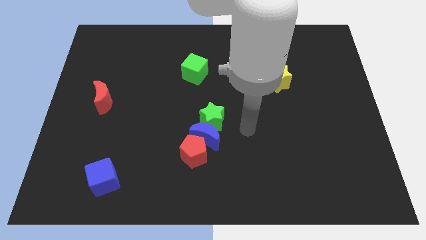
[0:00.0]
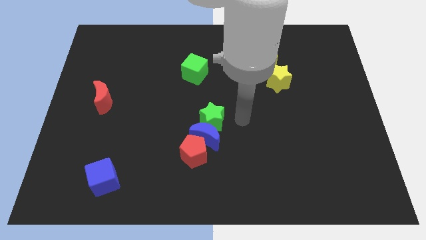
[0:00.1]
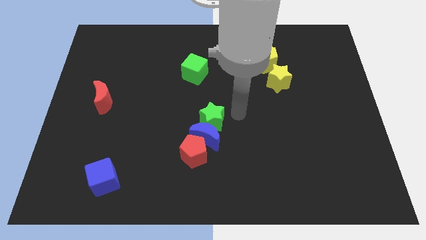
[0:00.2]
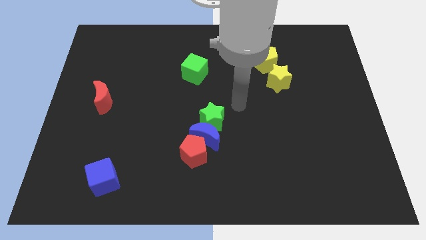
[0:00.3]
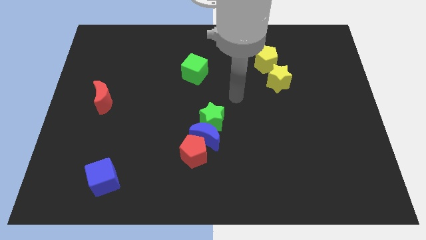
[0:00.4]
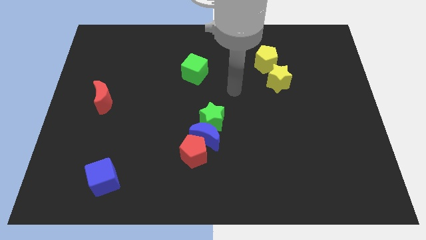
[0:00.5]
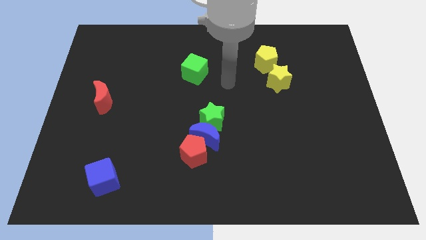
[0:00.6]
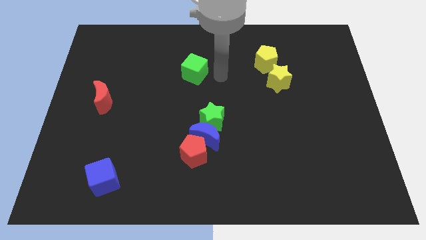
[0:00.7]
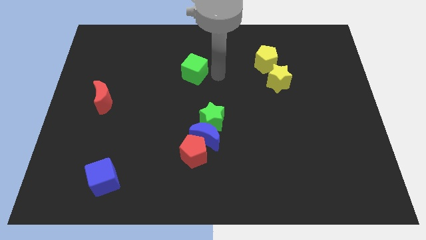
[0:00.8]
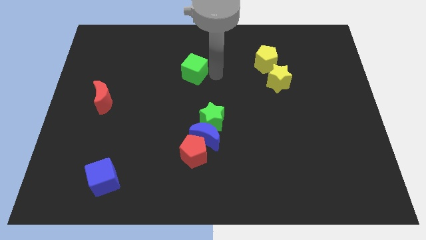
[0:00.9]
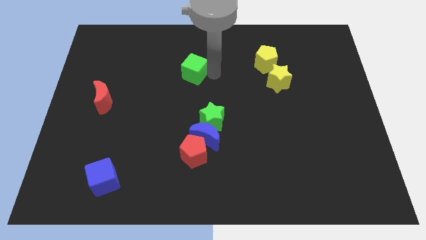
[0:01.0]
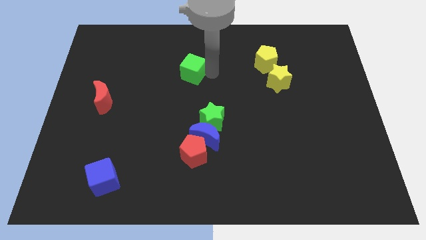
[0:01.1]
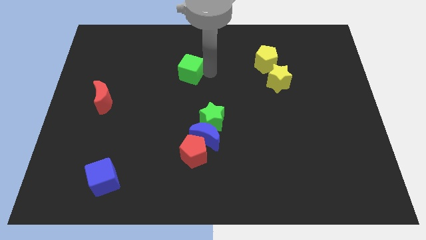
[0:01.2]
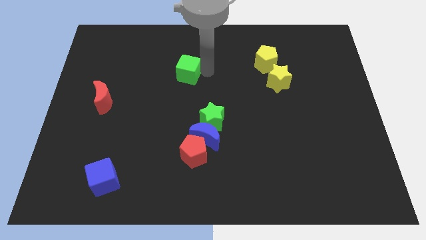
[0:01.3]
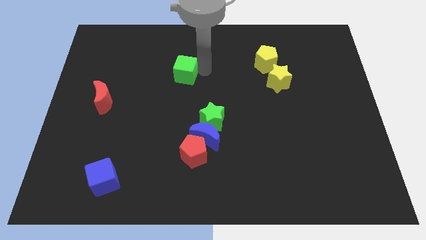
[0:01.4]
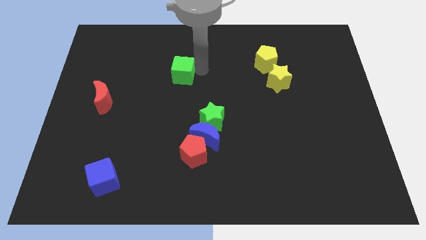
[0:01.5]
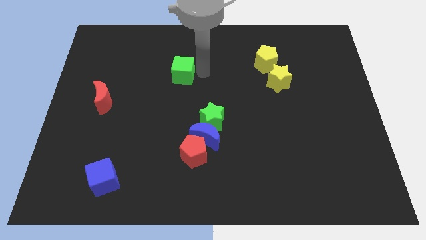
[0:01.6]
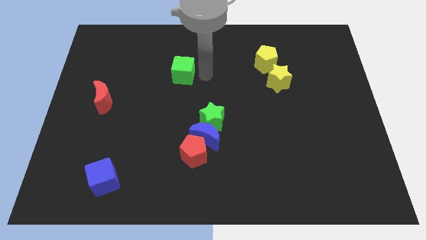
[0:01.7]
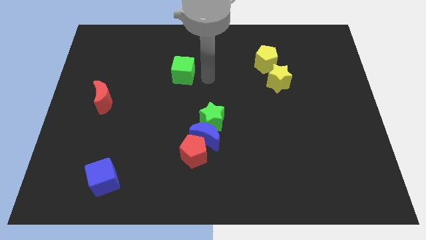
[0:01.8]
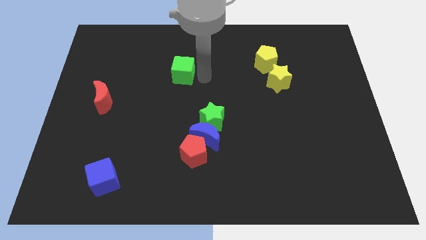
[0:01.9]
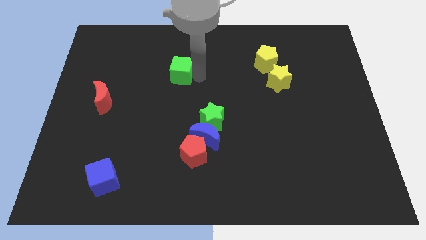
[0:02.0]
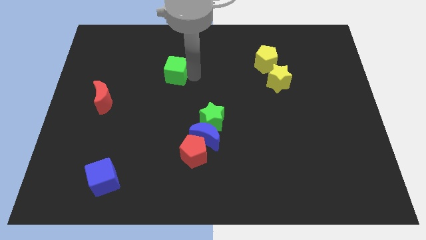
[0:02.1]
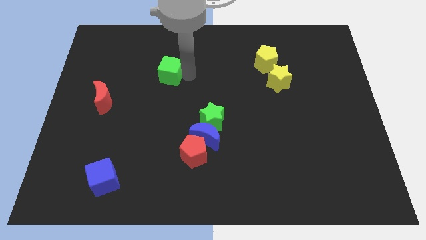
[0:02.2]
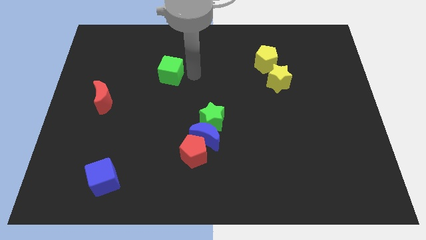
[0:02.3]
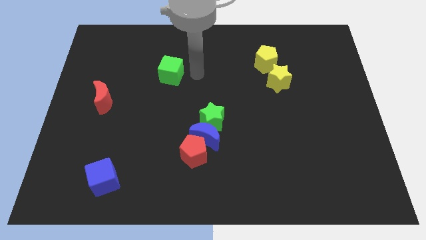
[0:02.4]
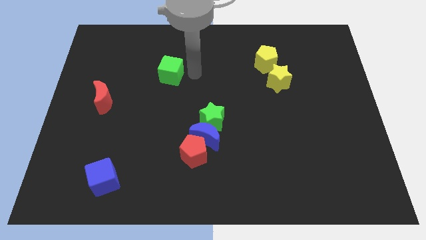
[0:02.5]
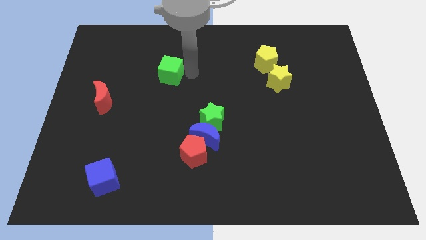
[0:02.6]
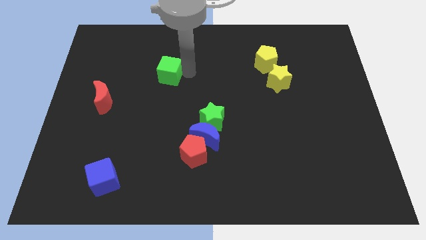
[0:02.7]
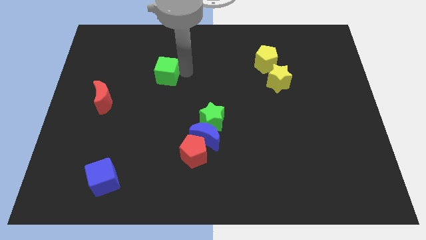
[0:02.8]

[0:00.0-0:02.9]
slide the green cube left a little

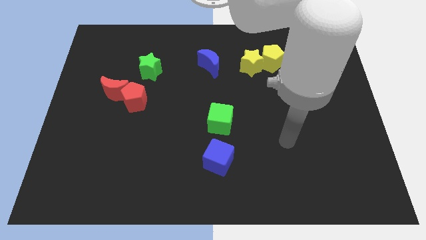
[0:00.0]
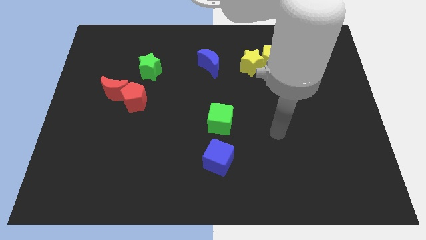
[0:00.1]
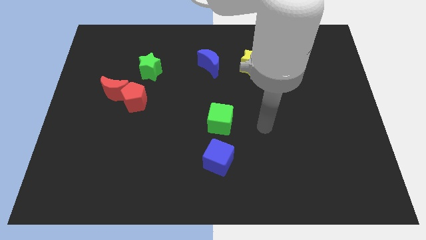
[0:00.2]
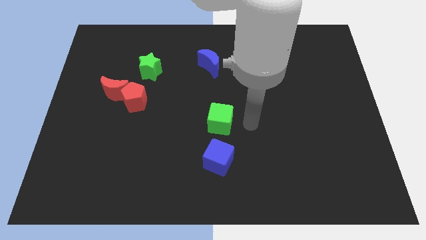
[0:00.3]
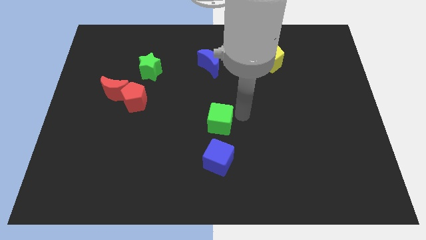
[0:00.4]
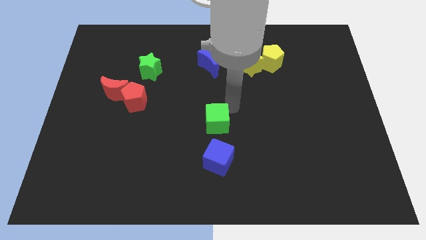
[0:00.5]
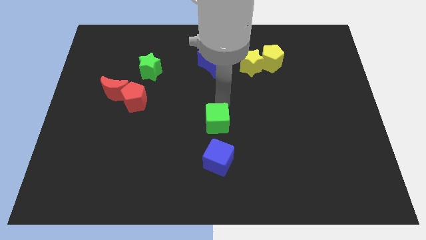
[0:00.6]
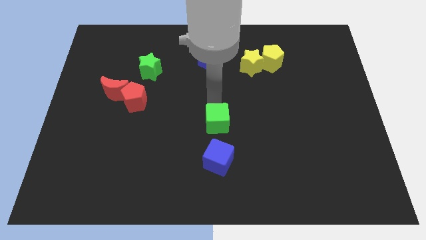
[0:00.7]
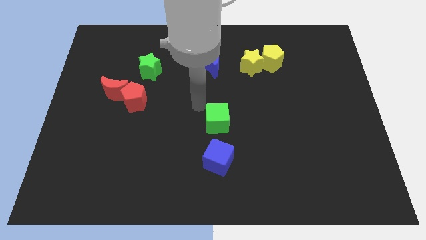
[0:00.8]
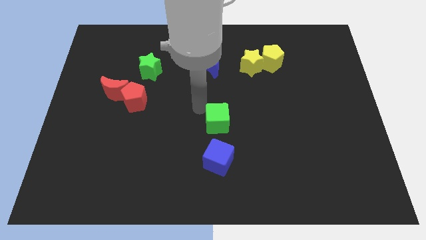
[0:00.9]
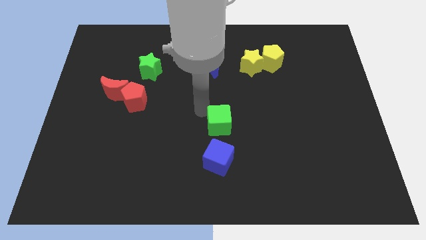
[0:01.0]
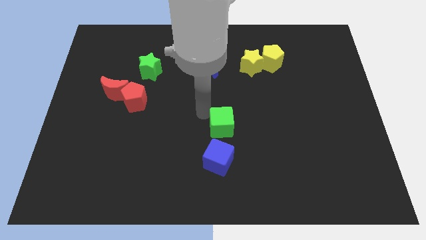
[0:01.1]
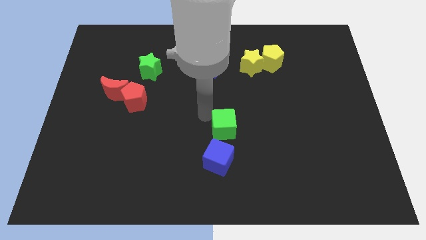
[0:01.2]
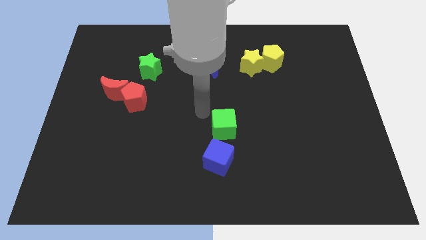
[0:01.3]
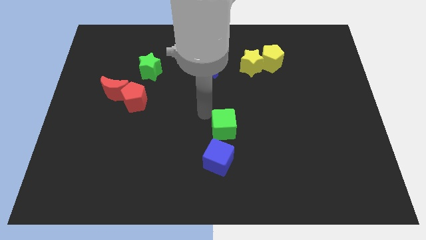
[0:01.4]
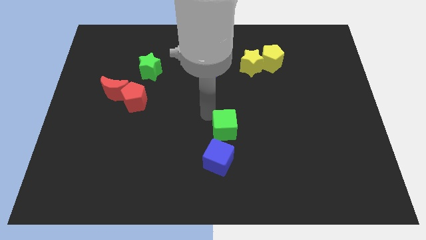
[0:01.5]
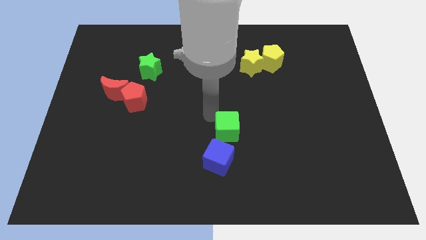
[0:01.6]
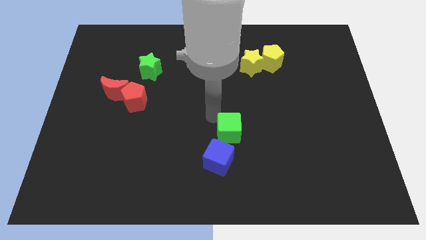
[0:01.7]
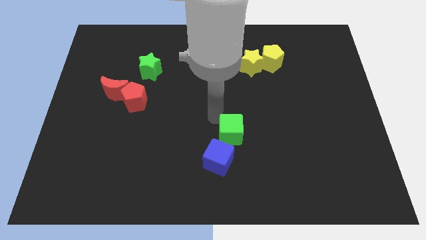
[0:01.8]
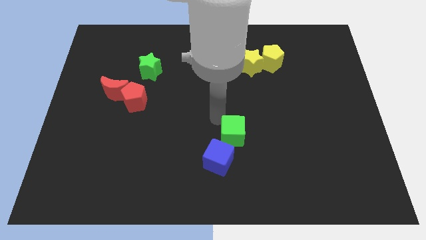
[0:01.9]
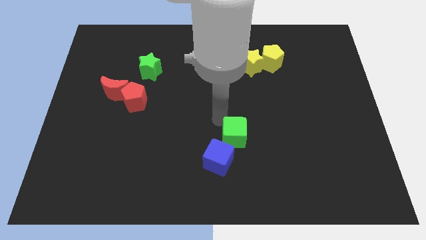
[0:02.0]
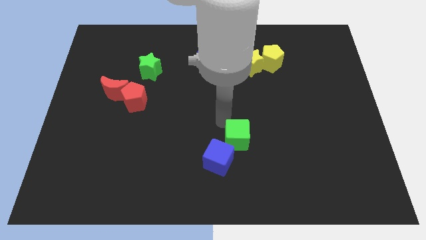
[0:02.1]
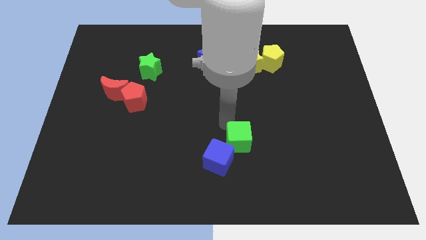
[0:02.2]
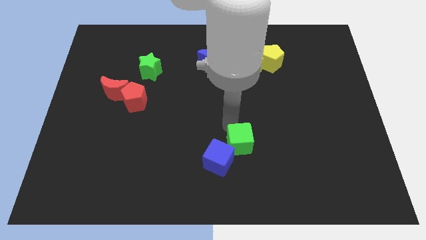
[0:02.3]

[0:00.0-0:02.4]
move the green cube a little bit diagonally downwards and right

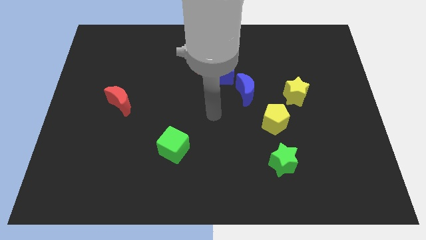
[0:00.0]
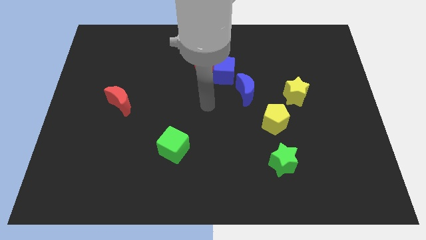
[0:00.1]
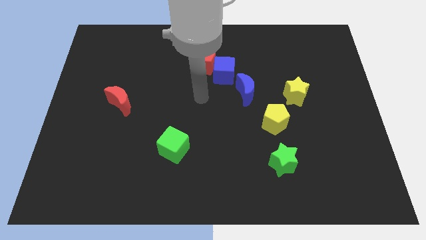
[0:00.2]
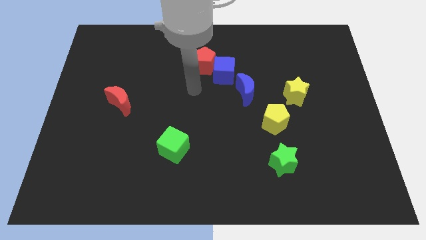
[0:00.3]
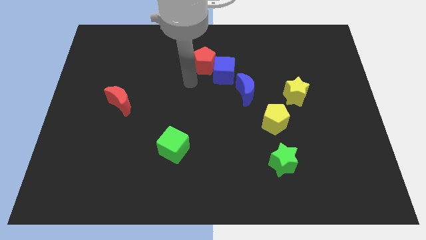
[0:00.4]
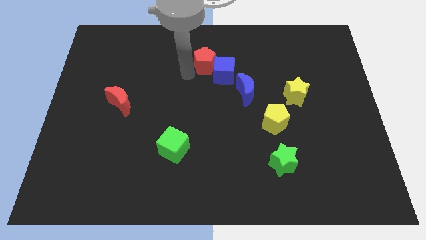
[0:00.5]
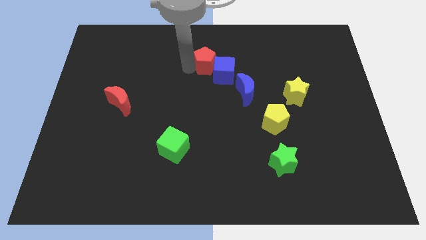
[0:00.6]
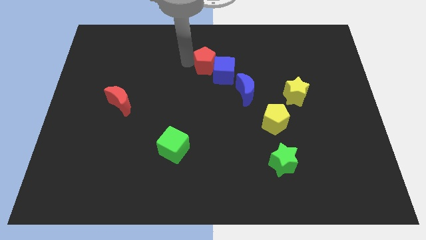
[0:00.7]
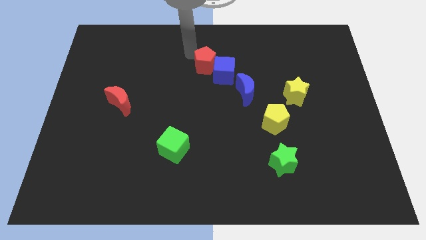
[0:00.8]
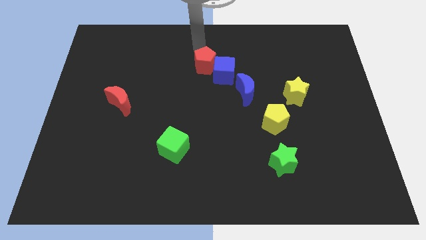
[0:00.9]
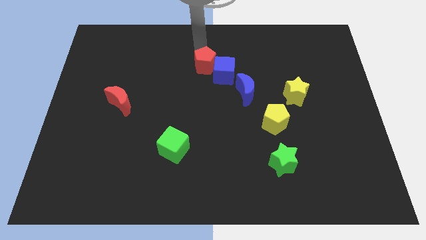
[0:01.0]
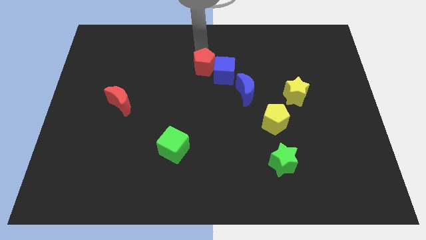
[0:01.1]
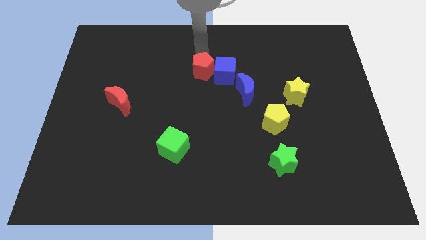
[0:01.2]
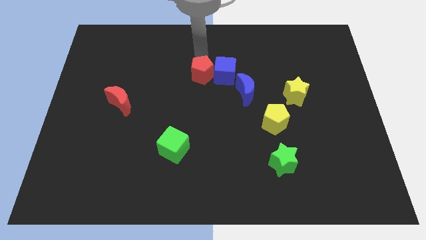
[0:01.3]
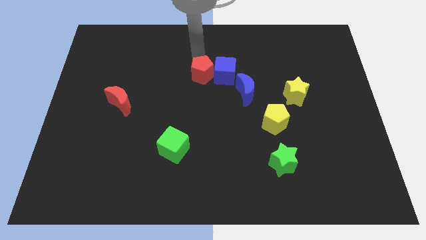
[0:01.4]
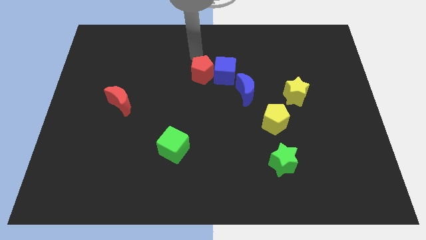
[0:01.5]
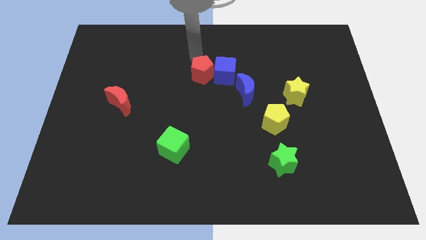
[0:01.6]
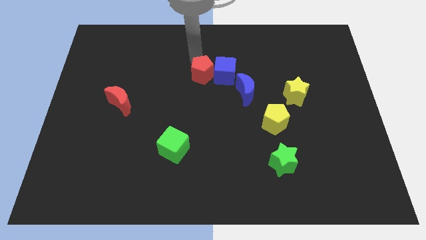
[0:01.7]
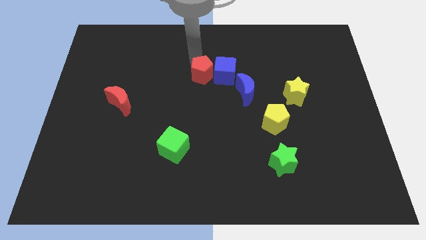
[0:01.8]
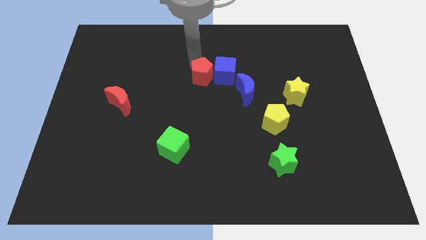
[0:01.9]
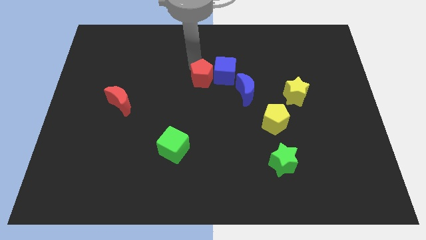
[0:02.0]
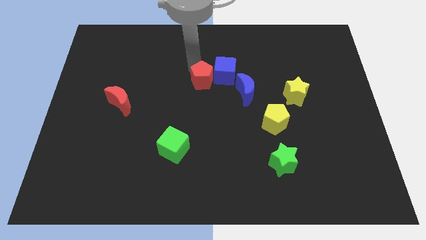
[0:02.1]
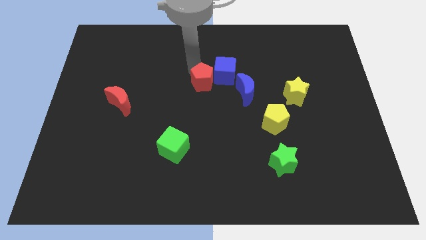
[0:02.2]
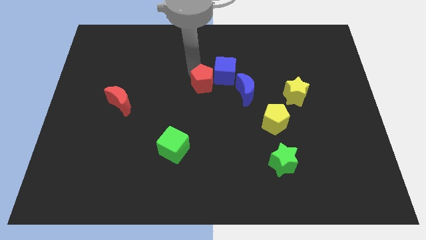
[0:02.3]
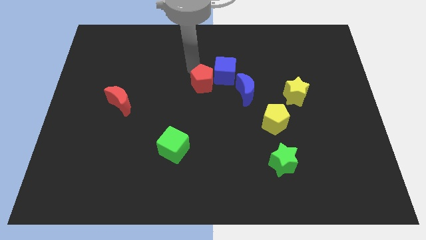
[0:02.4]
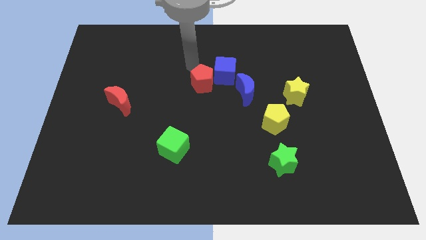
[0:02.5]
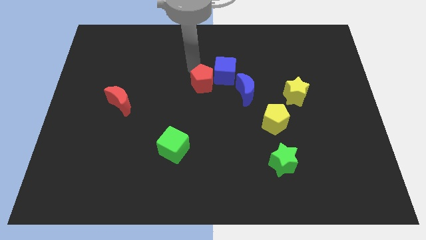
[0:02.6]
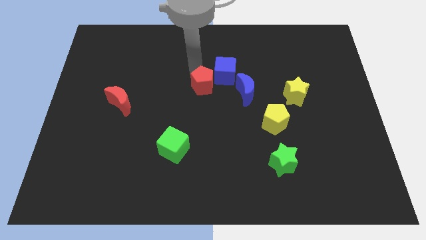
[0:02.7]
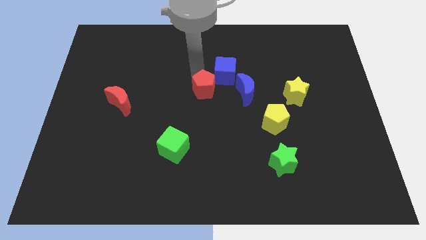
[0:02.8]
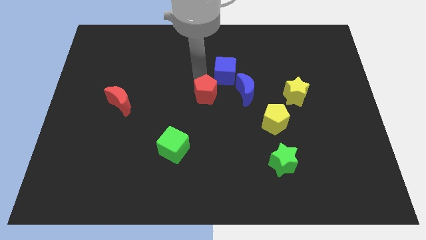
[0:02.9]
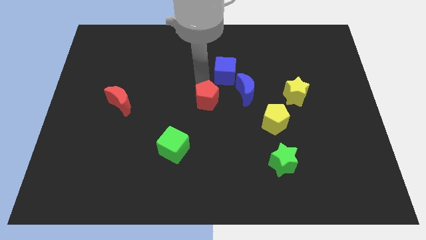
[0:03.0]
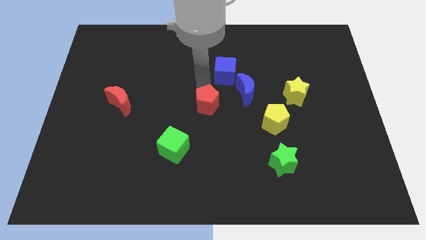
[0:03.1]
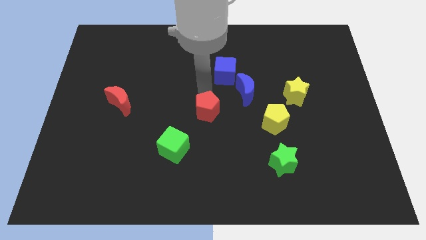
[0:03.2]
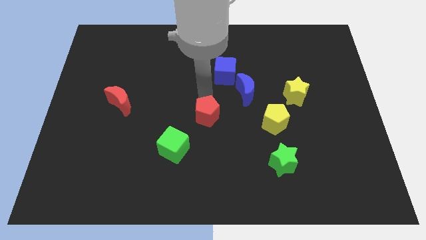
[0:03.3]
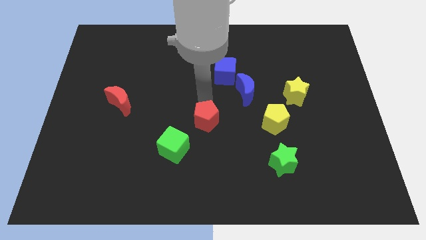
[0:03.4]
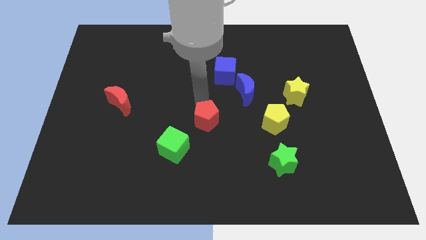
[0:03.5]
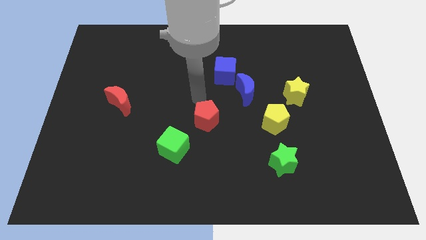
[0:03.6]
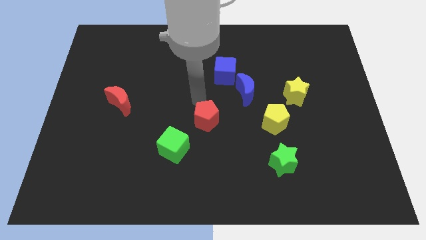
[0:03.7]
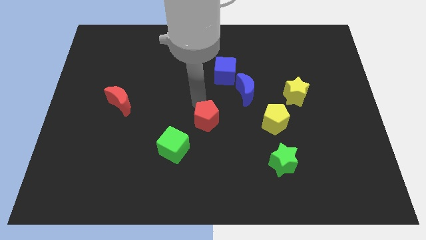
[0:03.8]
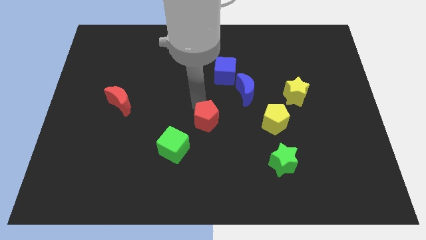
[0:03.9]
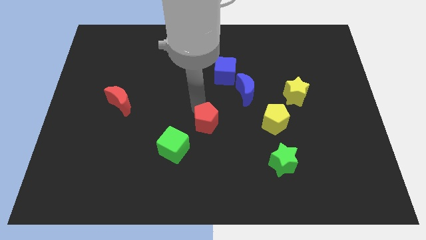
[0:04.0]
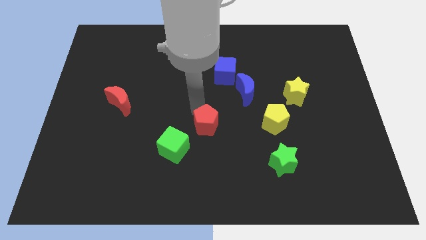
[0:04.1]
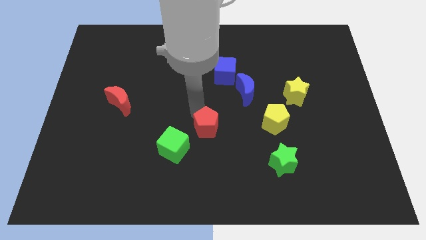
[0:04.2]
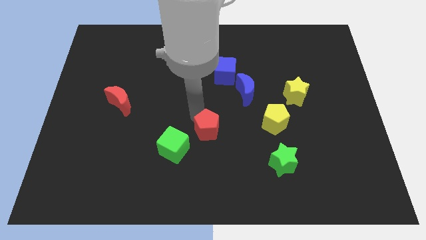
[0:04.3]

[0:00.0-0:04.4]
push the red pentagon down
